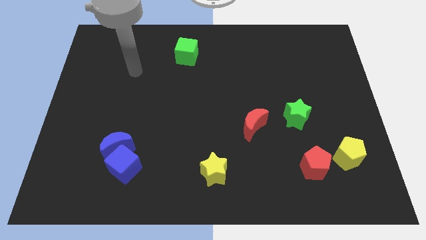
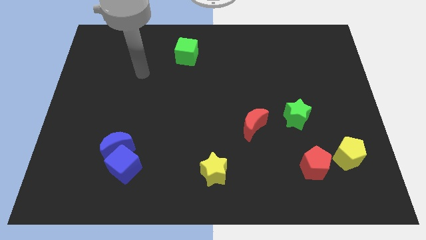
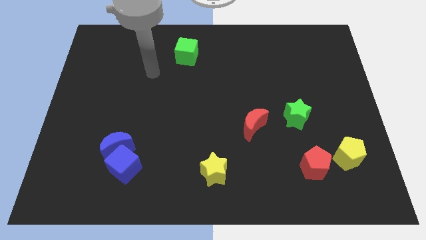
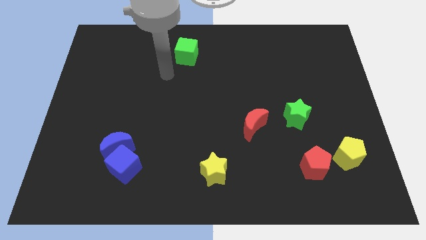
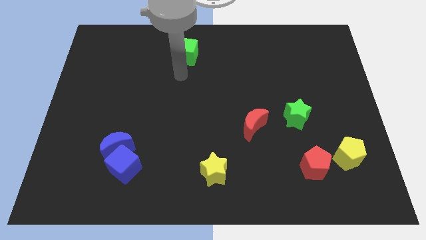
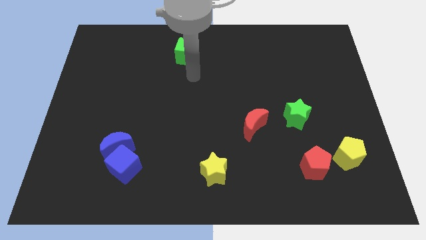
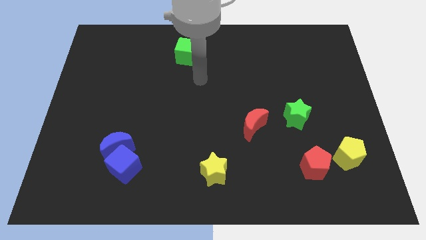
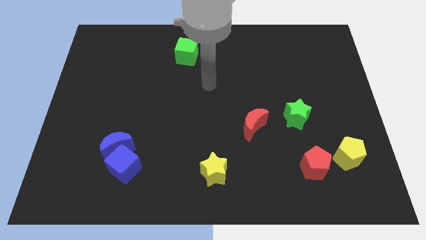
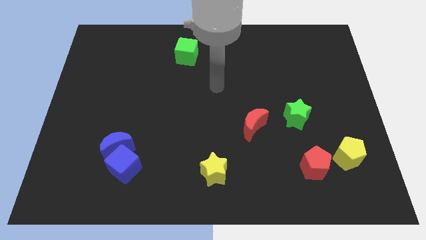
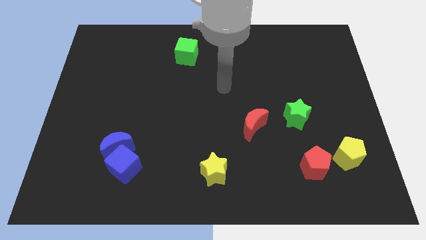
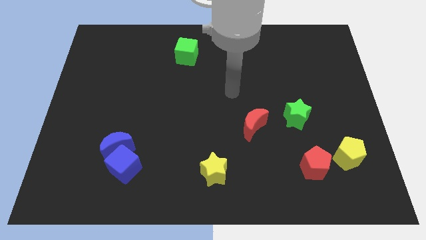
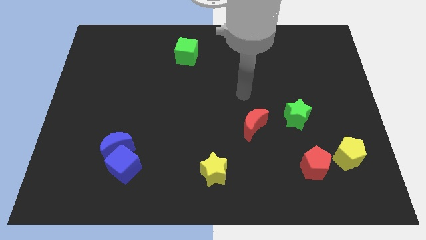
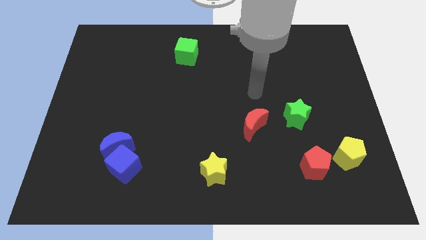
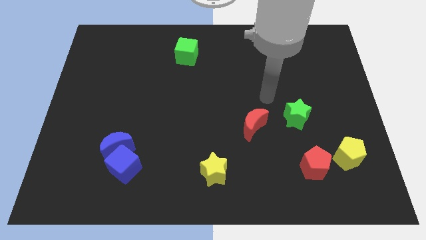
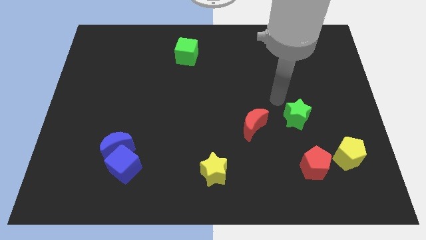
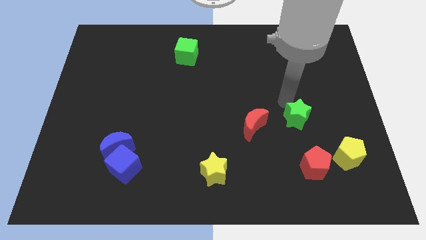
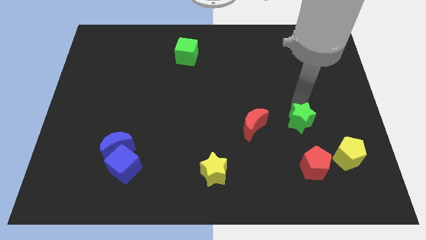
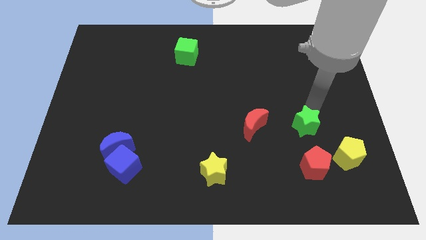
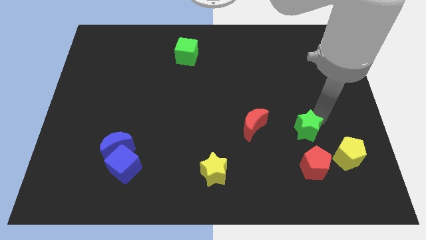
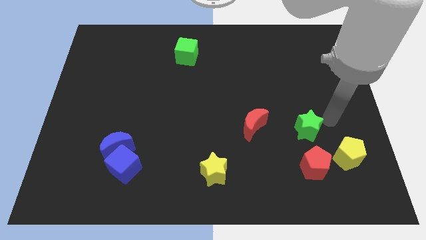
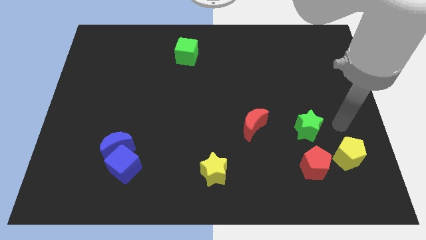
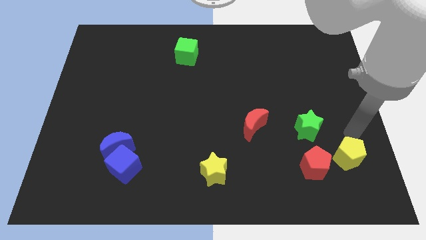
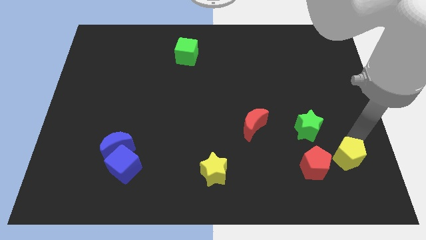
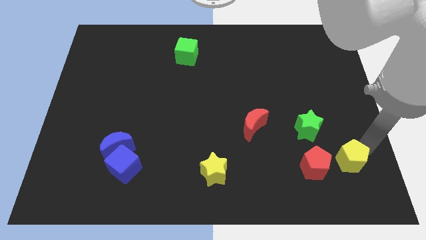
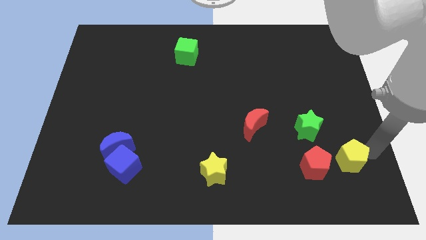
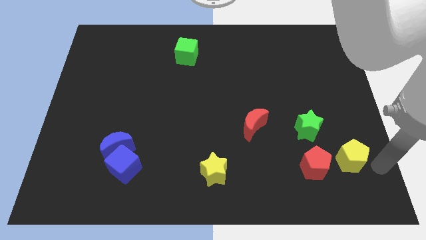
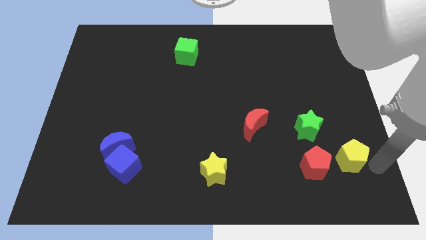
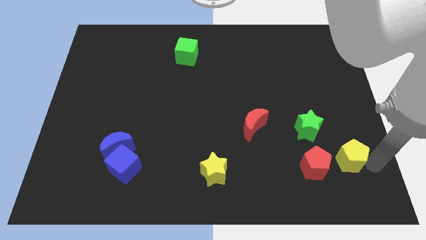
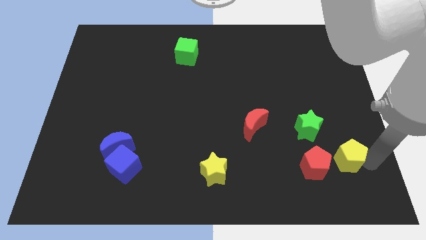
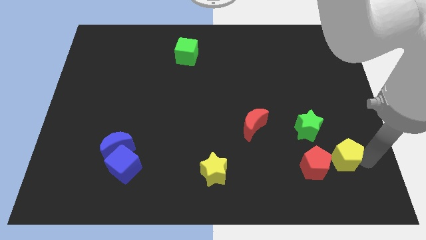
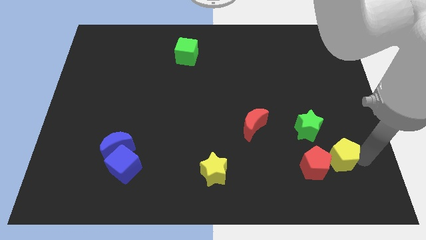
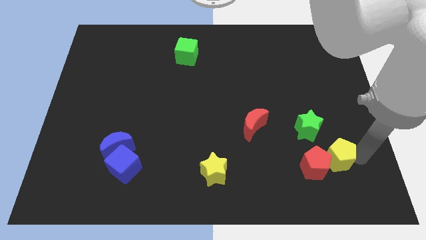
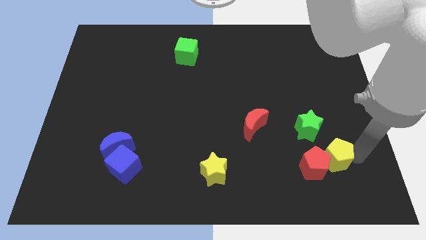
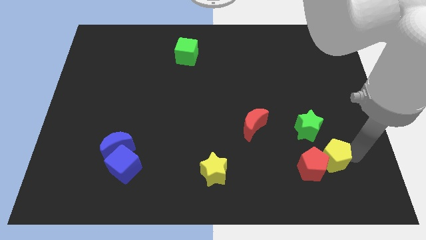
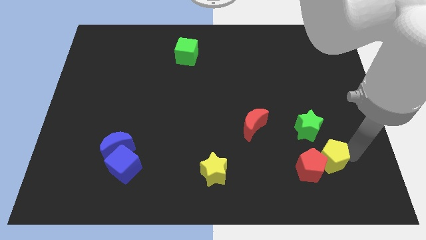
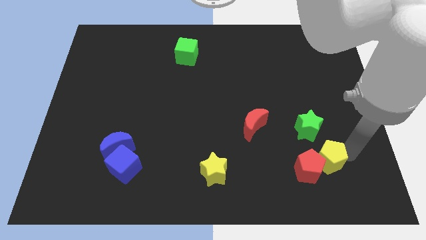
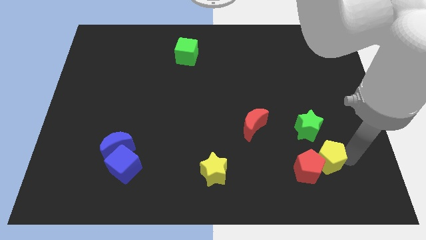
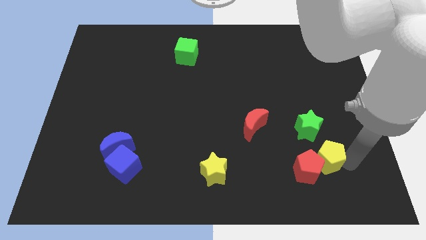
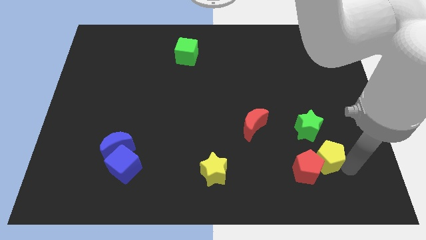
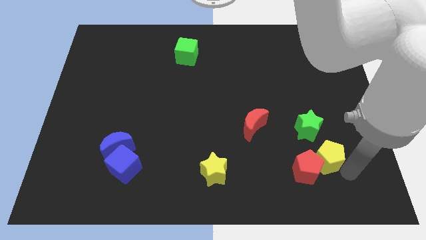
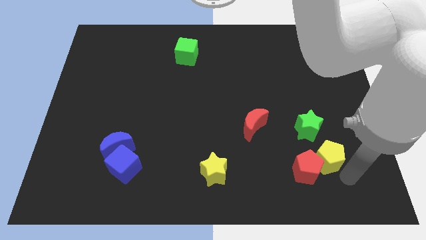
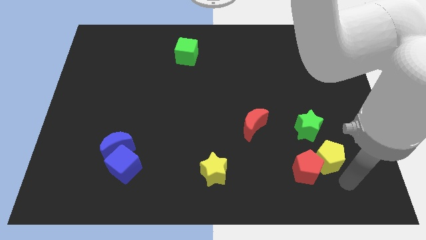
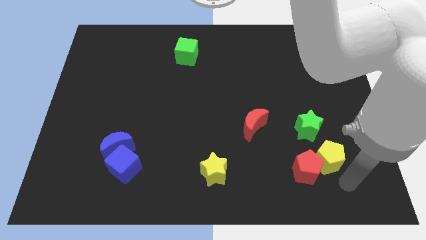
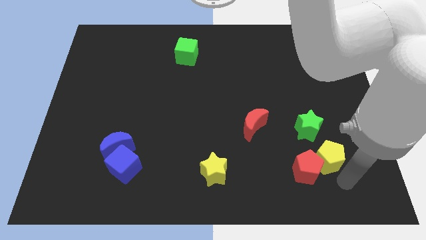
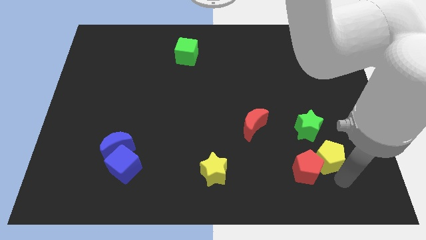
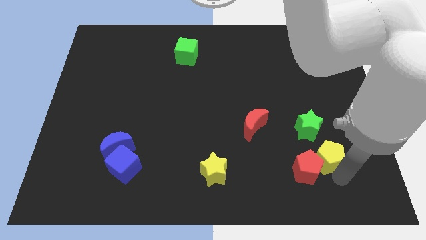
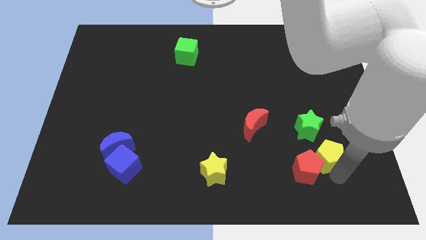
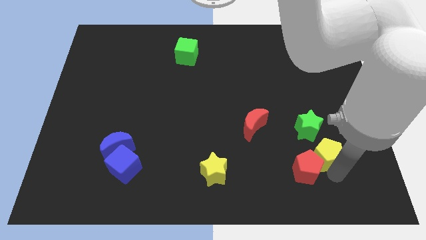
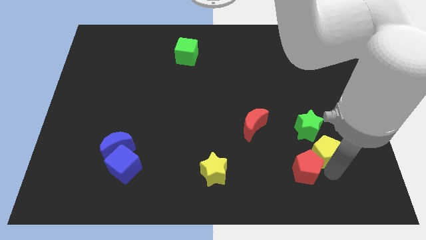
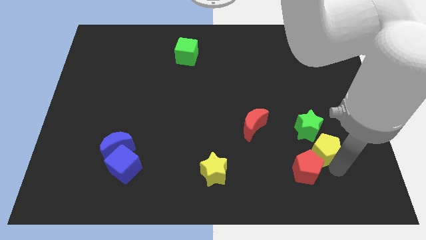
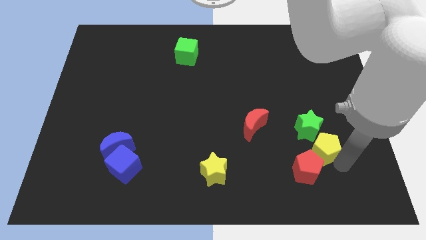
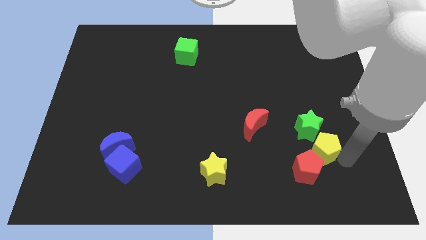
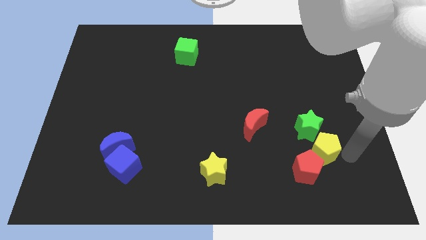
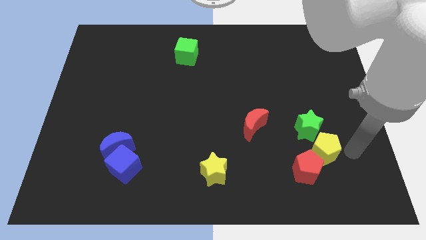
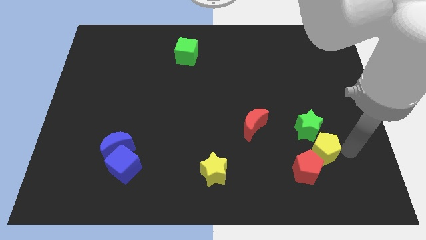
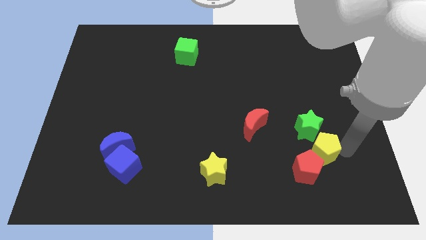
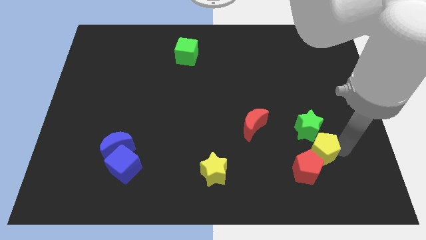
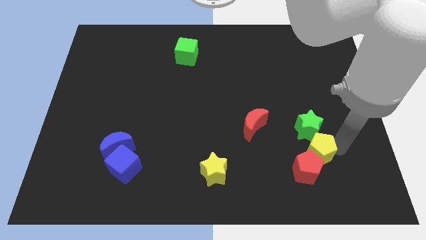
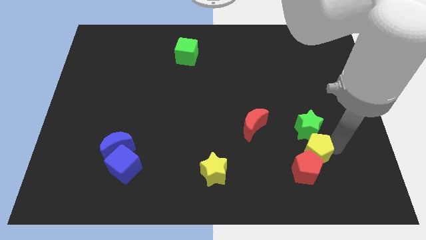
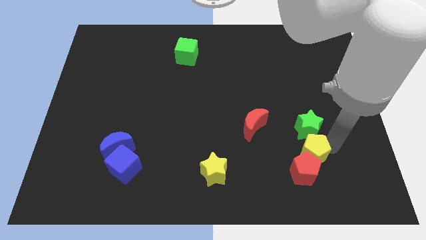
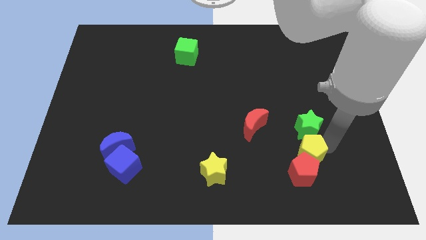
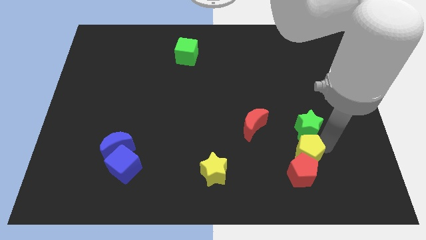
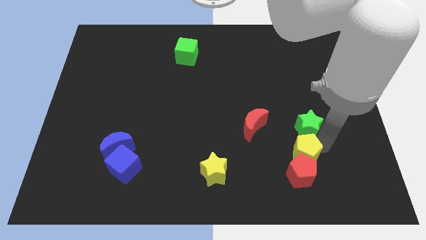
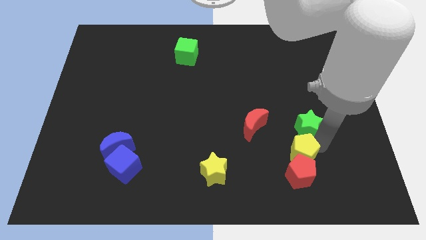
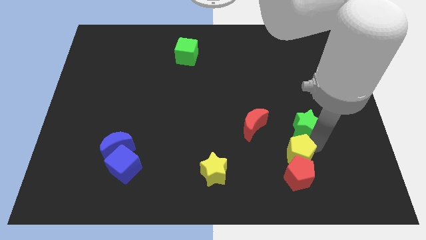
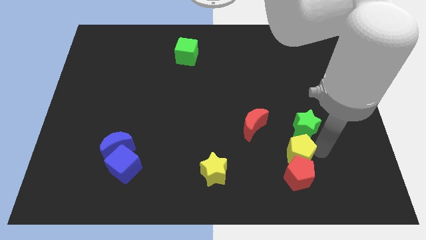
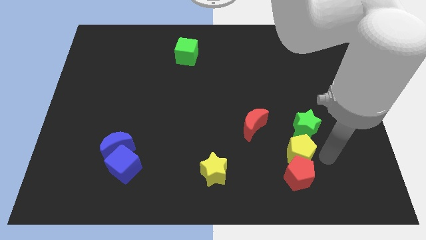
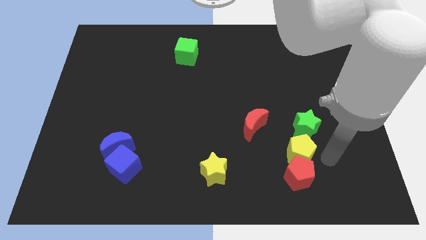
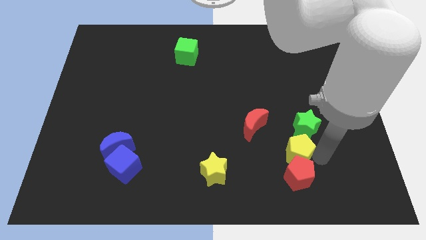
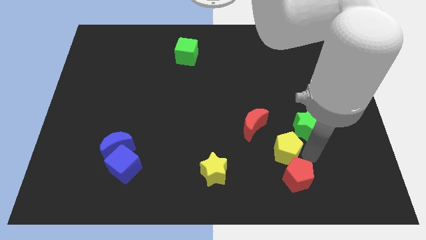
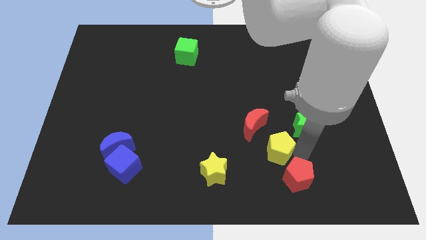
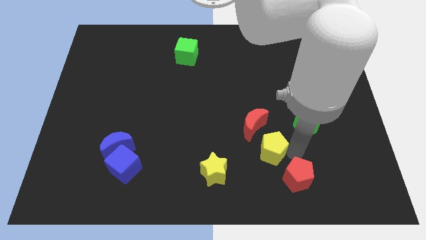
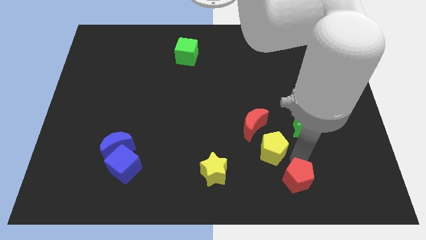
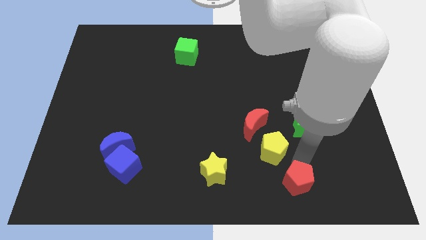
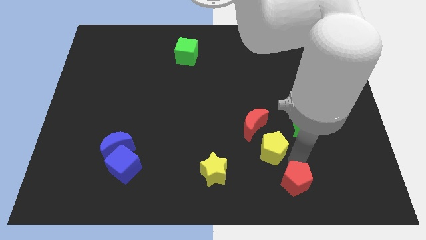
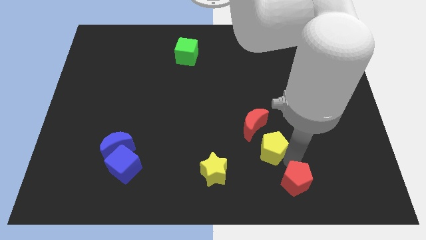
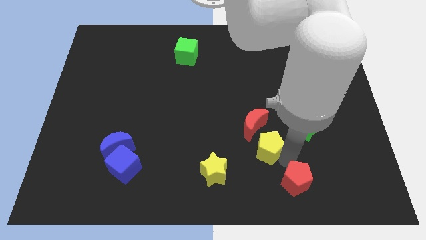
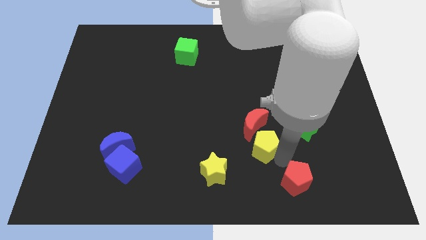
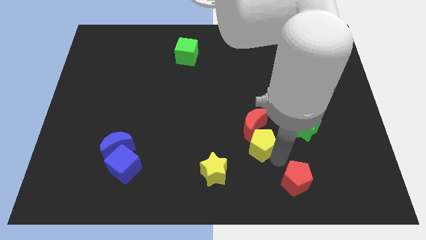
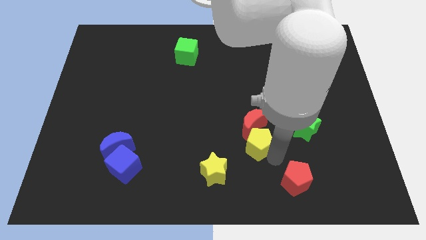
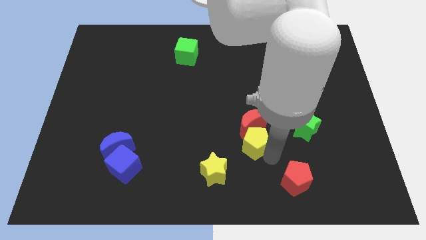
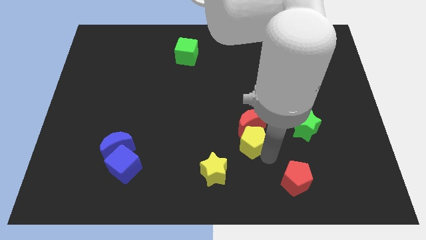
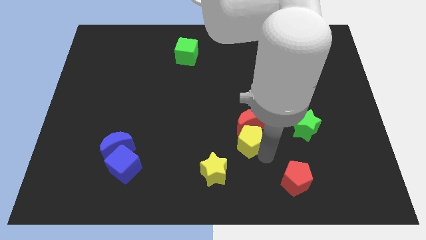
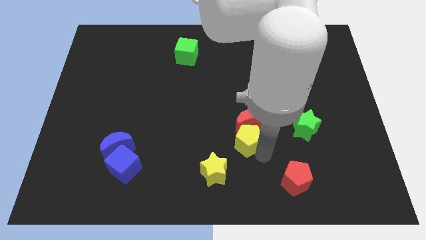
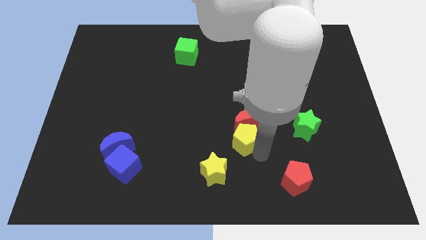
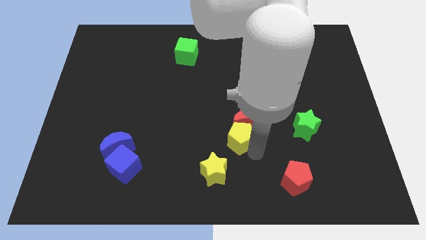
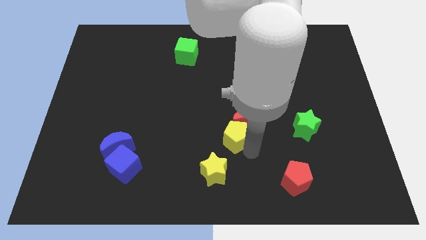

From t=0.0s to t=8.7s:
put the yellow pentagon to the left of the red moon
